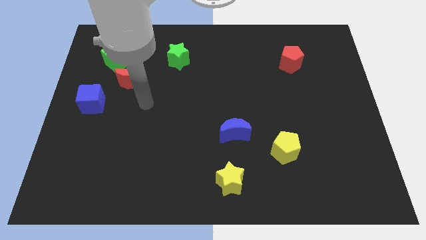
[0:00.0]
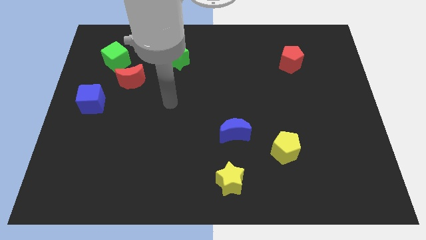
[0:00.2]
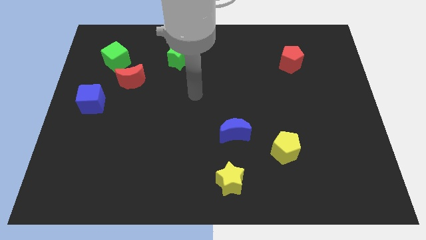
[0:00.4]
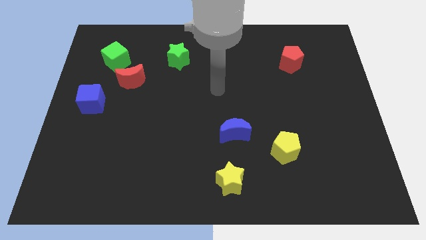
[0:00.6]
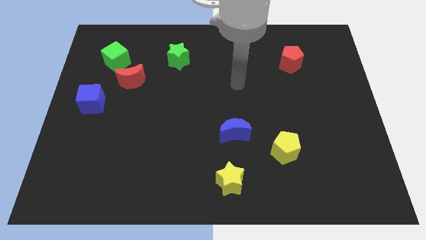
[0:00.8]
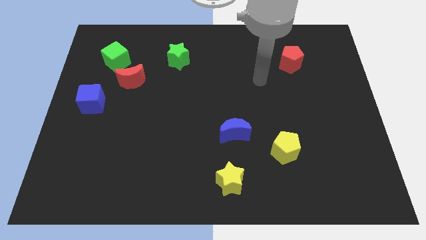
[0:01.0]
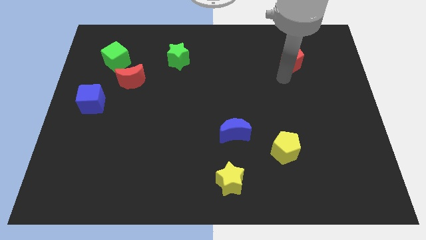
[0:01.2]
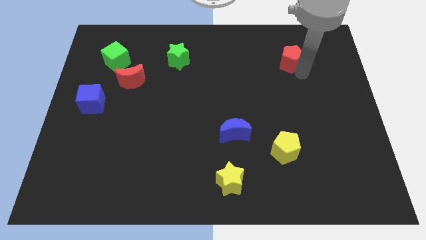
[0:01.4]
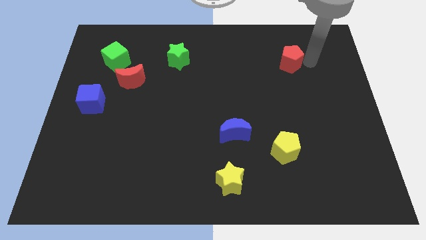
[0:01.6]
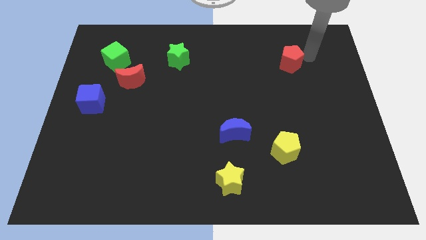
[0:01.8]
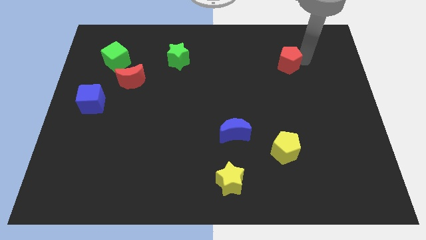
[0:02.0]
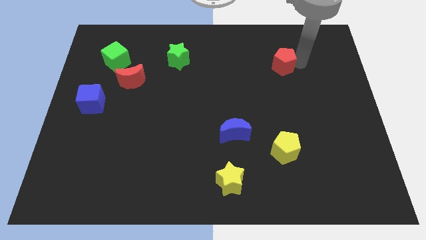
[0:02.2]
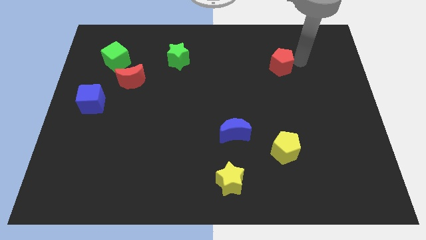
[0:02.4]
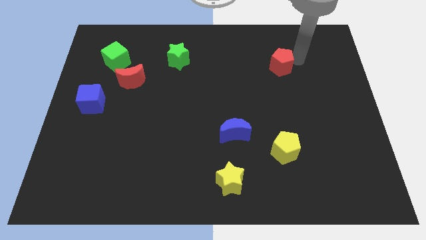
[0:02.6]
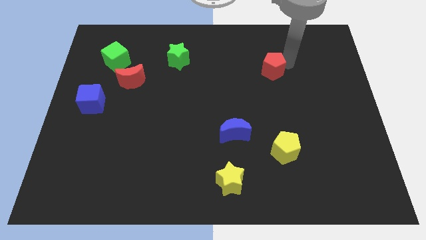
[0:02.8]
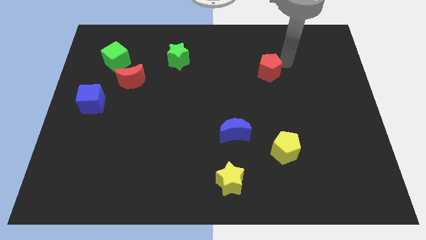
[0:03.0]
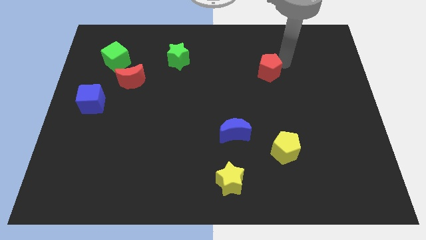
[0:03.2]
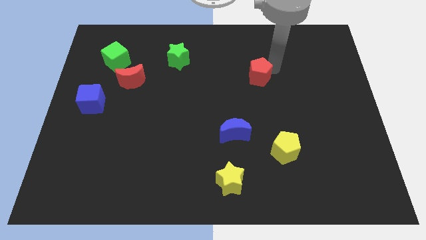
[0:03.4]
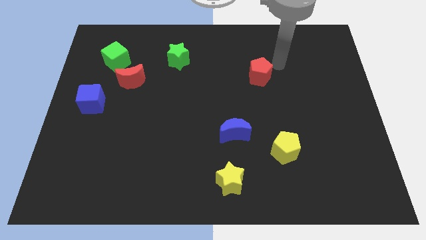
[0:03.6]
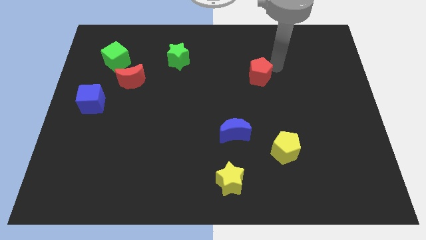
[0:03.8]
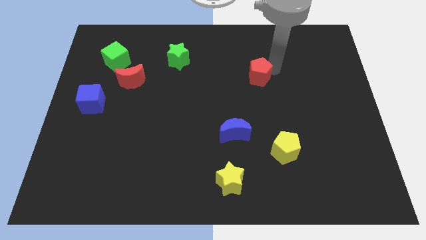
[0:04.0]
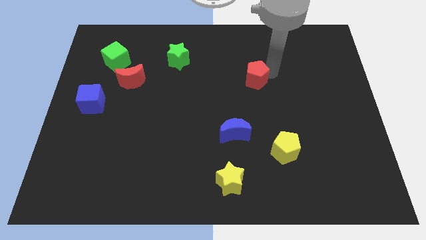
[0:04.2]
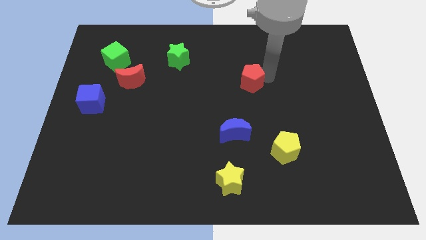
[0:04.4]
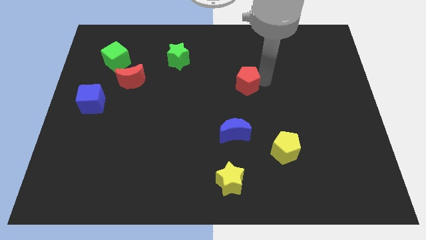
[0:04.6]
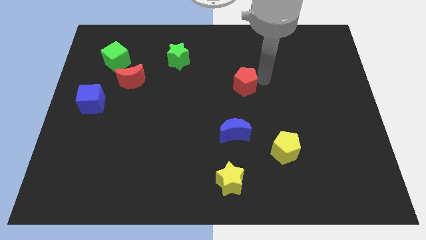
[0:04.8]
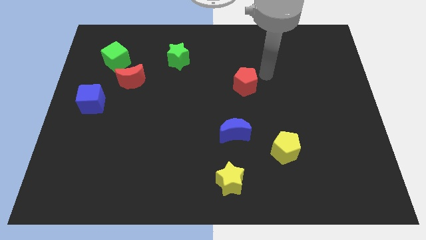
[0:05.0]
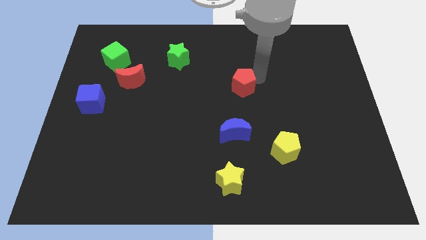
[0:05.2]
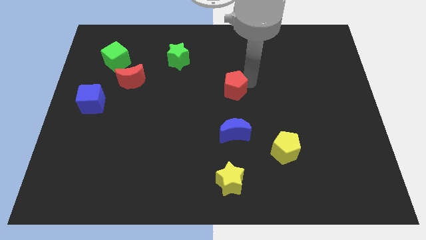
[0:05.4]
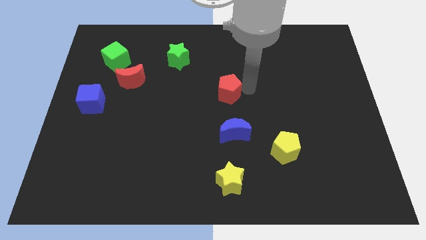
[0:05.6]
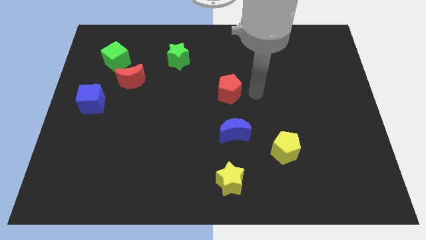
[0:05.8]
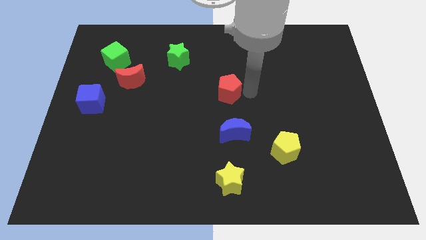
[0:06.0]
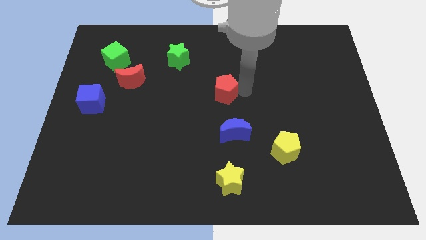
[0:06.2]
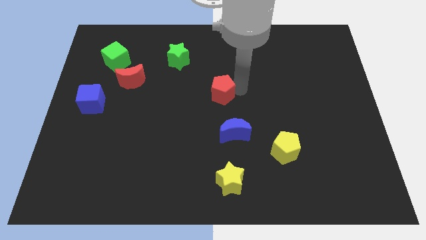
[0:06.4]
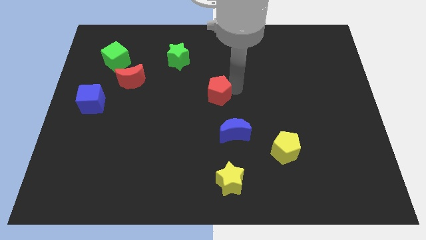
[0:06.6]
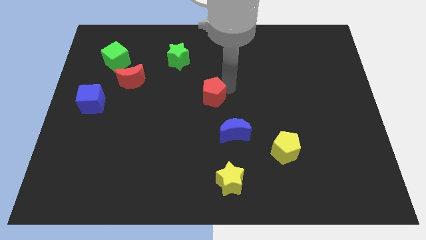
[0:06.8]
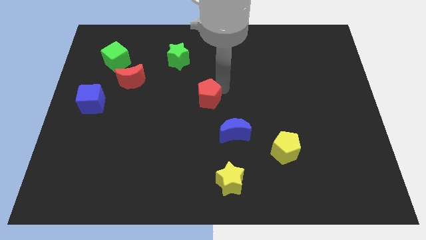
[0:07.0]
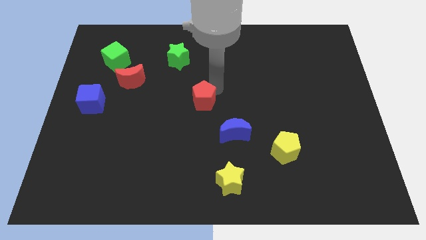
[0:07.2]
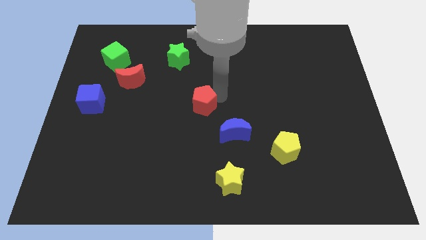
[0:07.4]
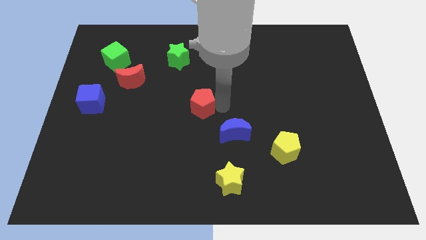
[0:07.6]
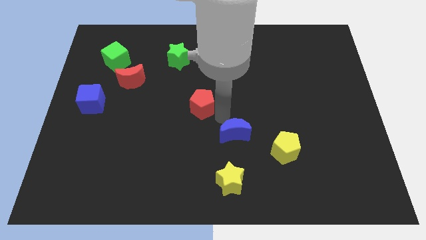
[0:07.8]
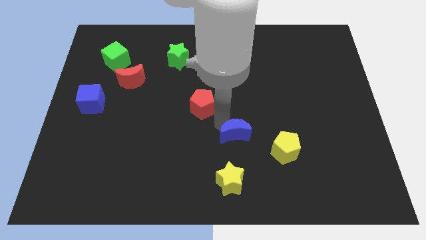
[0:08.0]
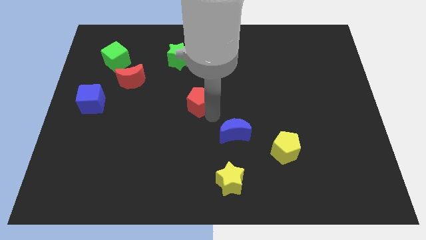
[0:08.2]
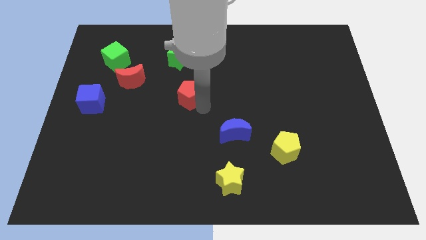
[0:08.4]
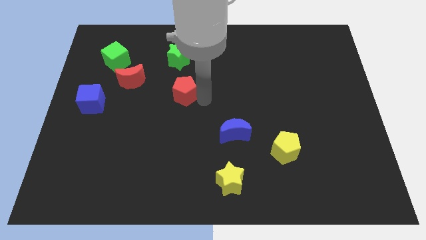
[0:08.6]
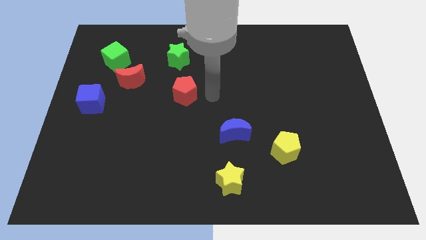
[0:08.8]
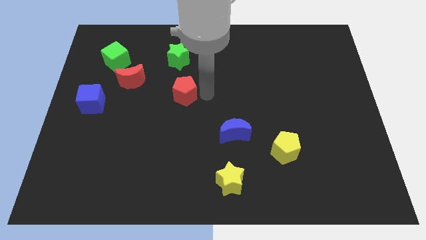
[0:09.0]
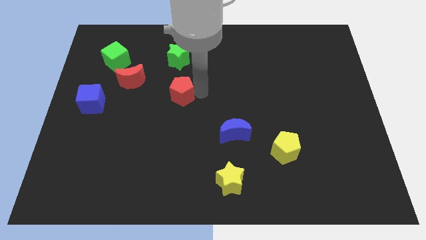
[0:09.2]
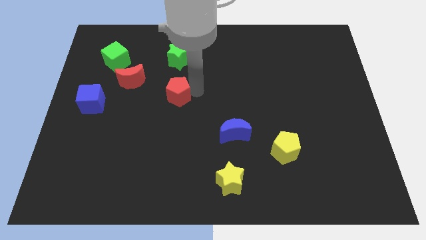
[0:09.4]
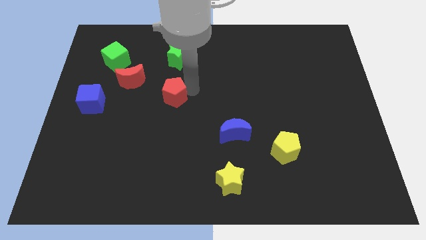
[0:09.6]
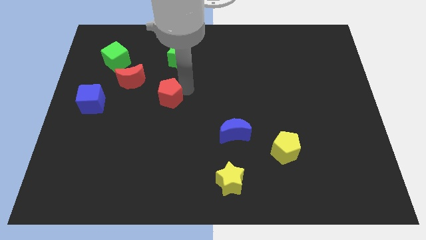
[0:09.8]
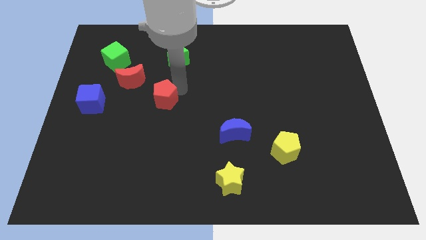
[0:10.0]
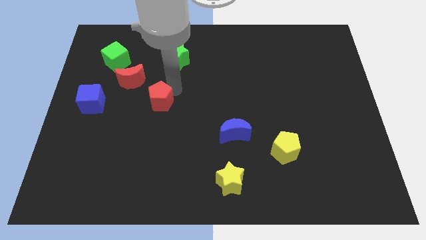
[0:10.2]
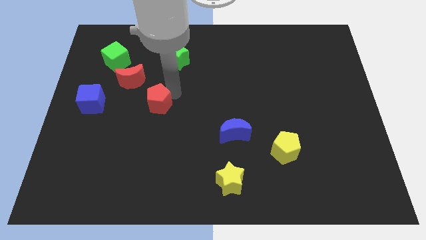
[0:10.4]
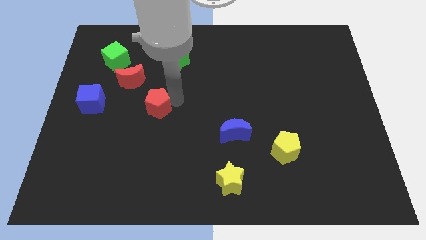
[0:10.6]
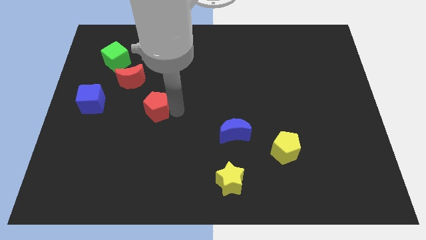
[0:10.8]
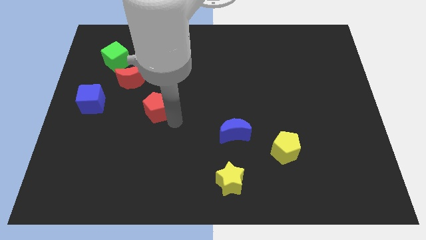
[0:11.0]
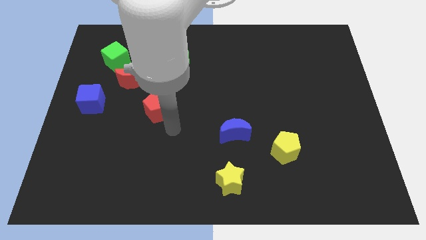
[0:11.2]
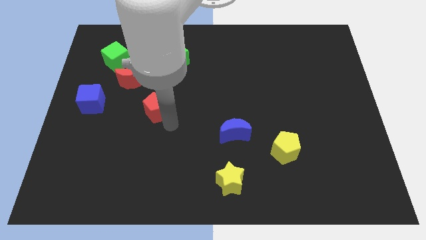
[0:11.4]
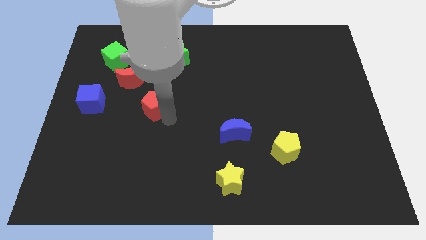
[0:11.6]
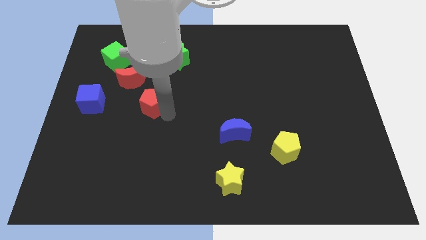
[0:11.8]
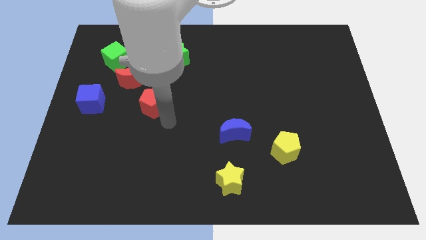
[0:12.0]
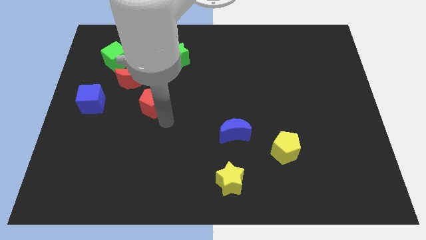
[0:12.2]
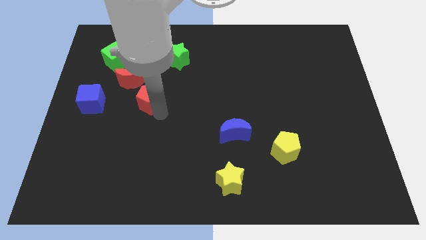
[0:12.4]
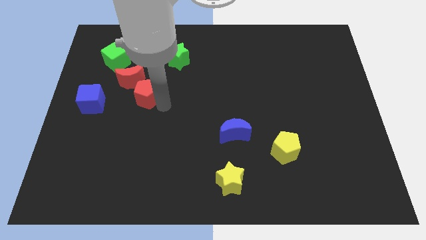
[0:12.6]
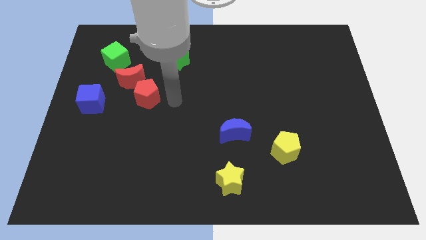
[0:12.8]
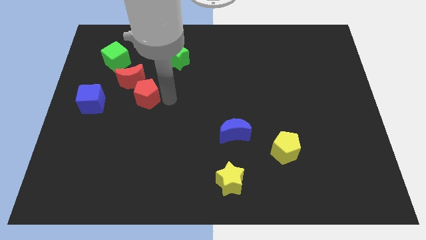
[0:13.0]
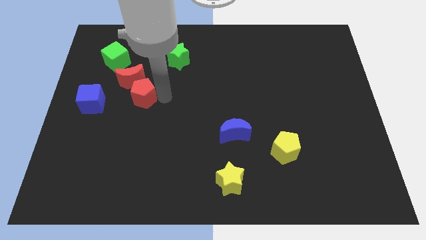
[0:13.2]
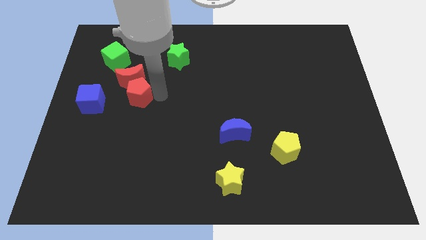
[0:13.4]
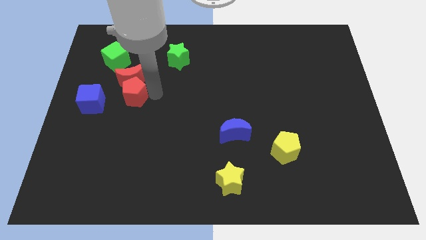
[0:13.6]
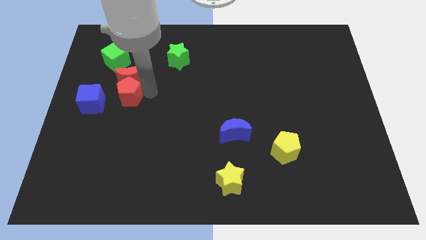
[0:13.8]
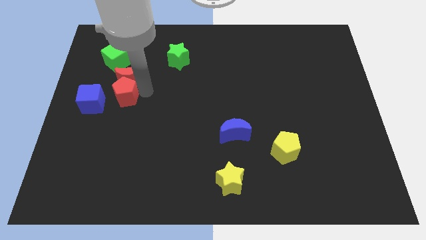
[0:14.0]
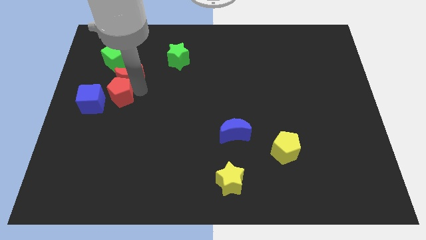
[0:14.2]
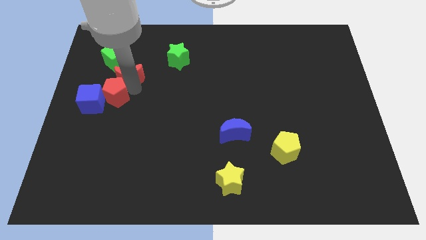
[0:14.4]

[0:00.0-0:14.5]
put the red pentagon towards the blue cube
